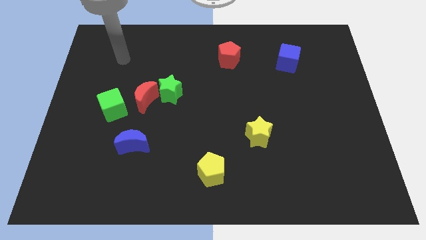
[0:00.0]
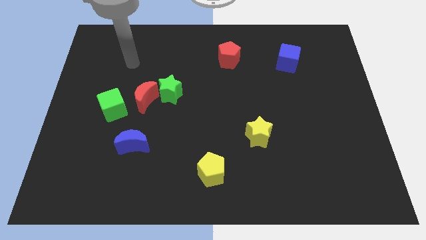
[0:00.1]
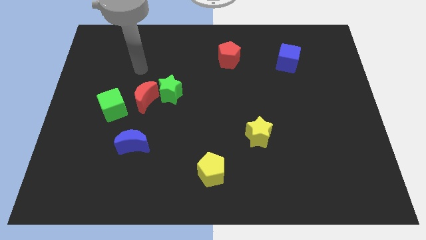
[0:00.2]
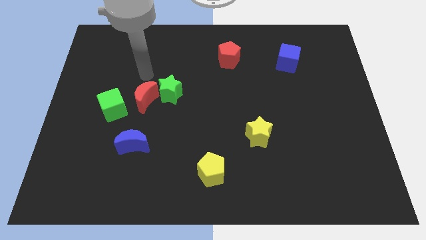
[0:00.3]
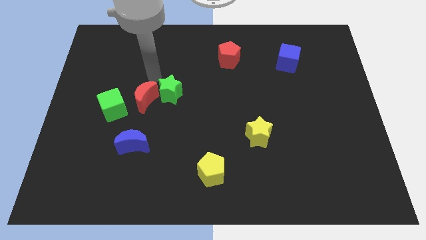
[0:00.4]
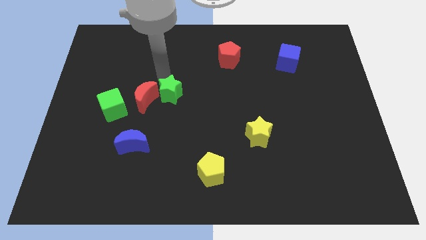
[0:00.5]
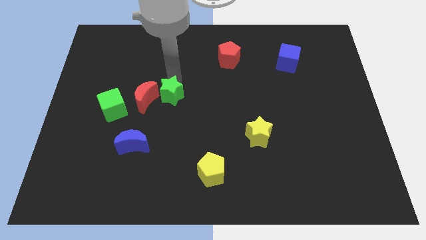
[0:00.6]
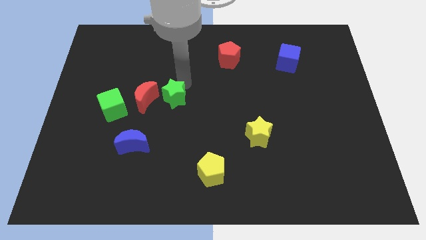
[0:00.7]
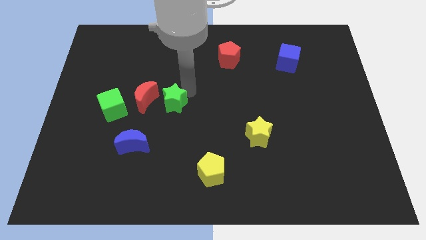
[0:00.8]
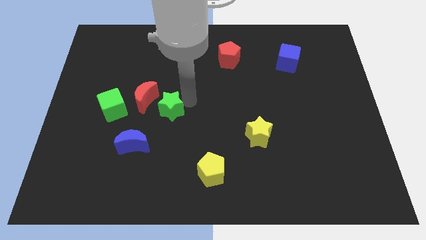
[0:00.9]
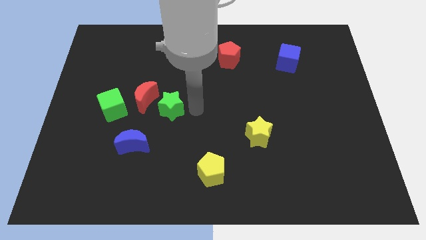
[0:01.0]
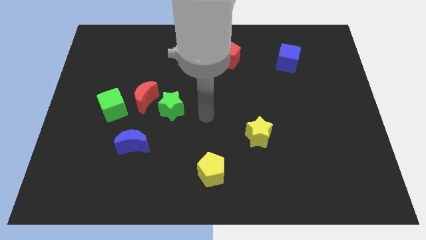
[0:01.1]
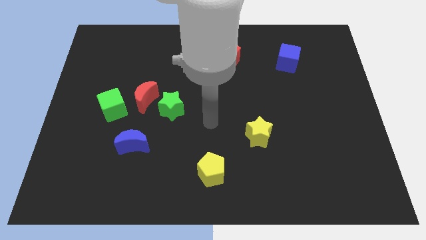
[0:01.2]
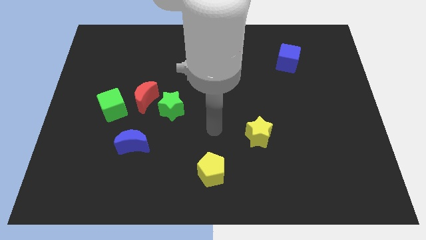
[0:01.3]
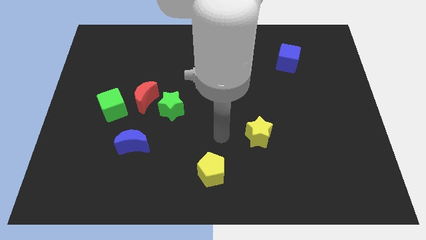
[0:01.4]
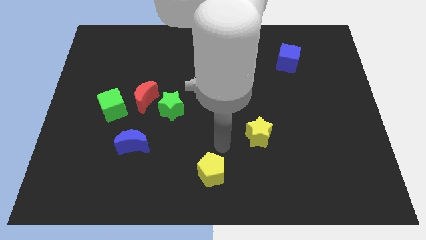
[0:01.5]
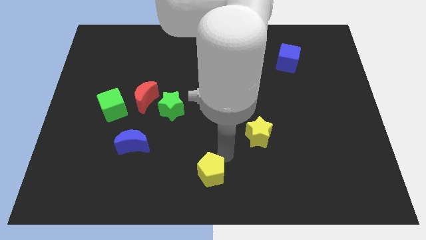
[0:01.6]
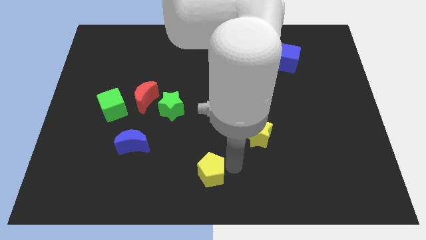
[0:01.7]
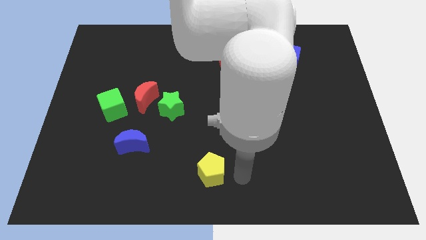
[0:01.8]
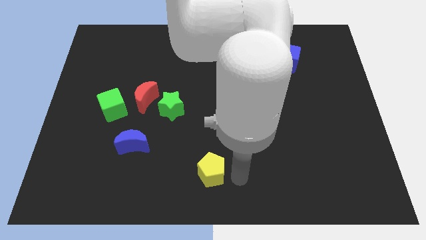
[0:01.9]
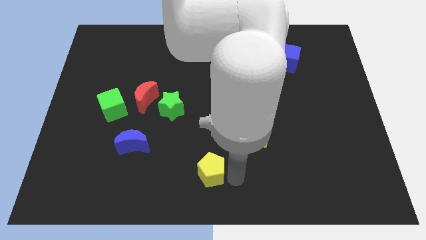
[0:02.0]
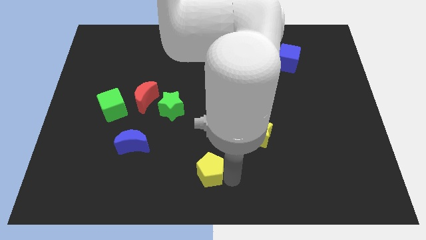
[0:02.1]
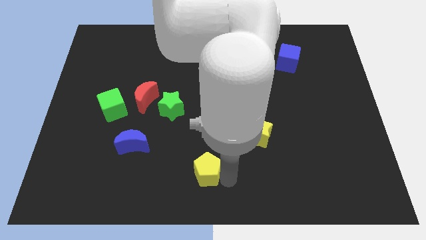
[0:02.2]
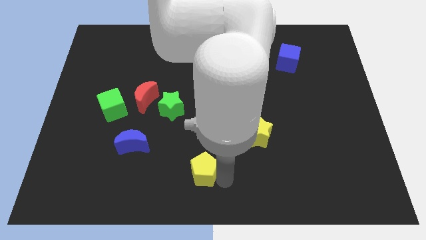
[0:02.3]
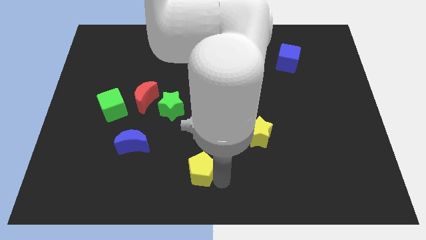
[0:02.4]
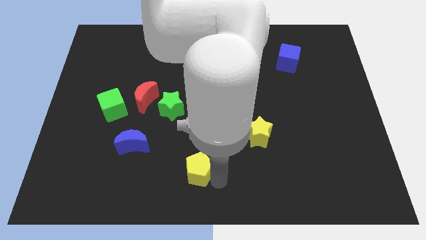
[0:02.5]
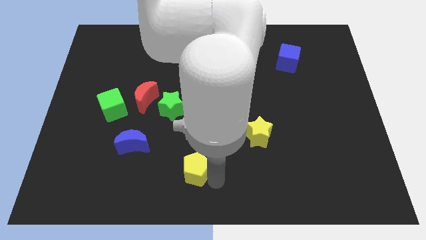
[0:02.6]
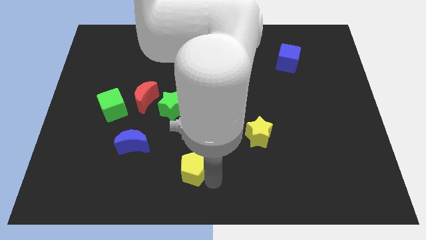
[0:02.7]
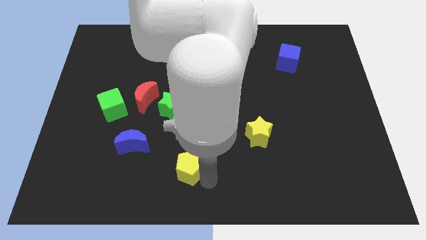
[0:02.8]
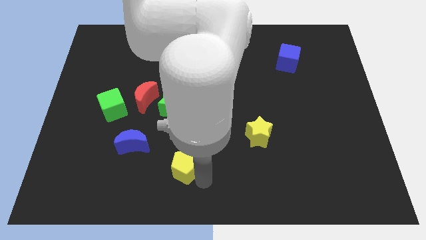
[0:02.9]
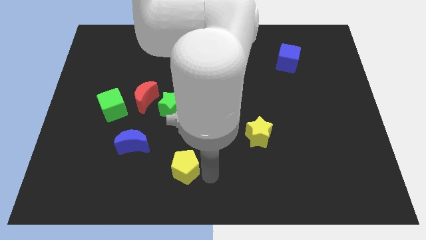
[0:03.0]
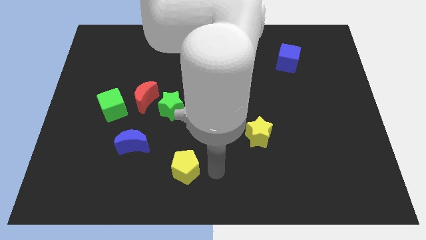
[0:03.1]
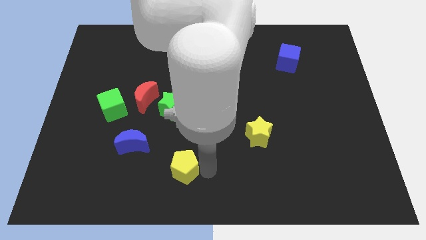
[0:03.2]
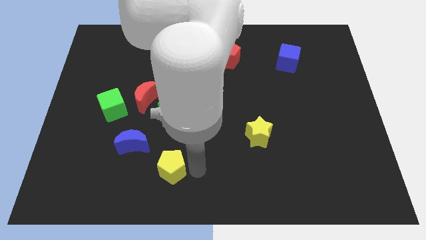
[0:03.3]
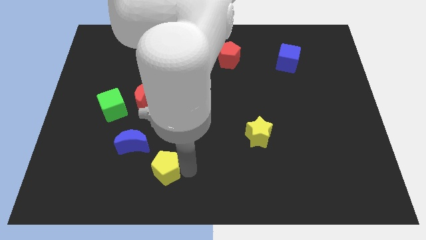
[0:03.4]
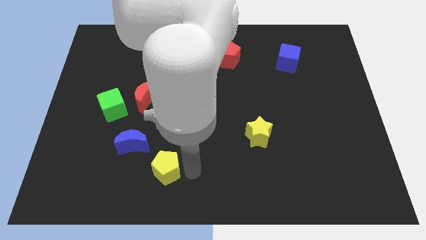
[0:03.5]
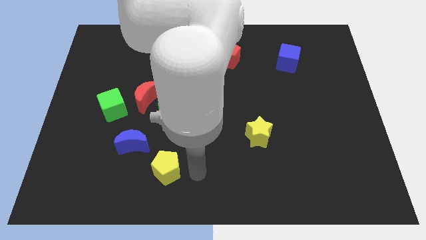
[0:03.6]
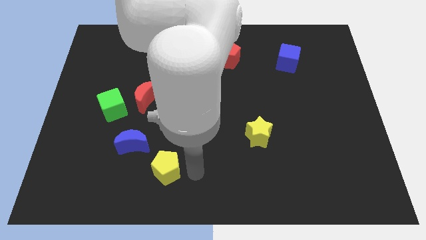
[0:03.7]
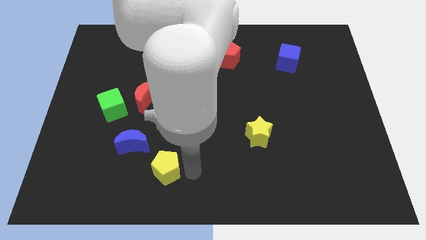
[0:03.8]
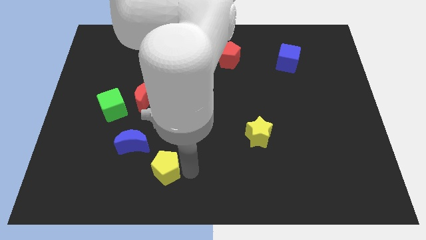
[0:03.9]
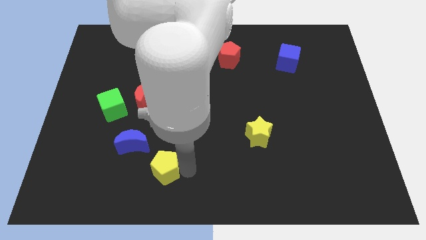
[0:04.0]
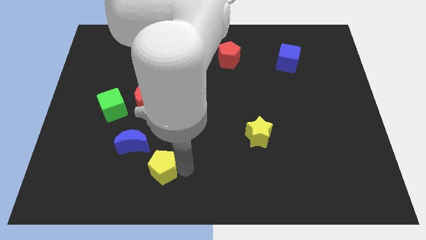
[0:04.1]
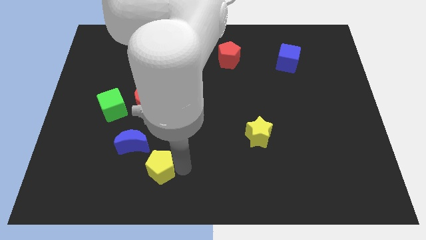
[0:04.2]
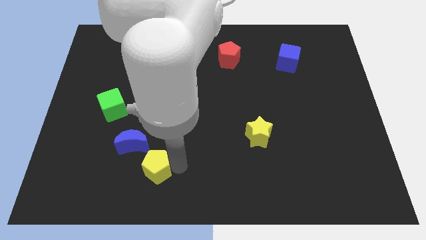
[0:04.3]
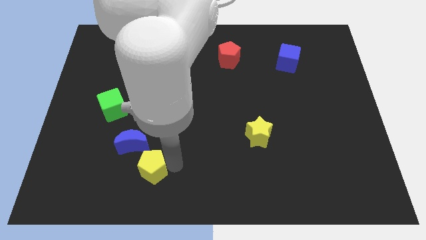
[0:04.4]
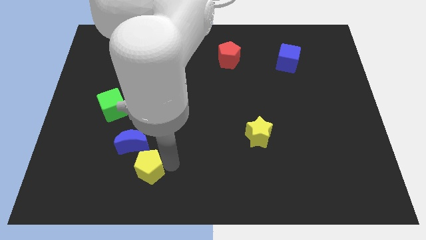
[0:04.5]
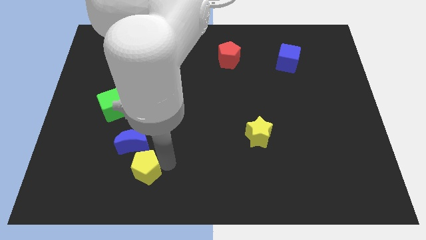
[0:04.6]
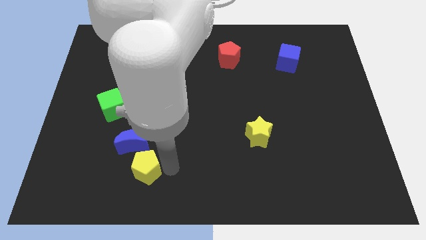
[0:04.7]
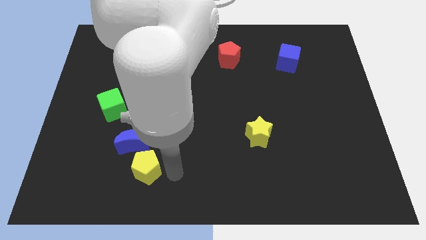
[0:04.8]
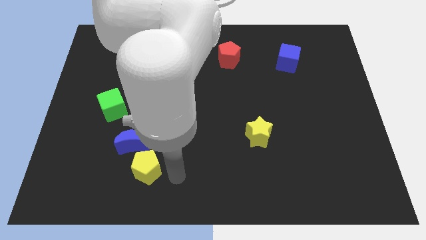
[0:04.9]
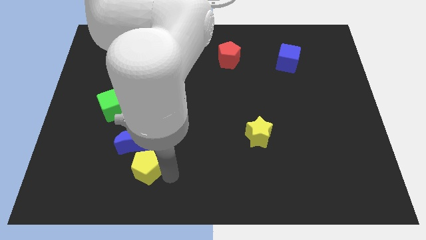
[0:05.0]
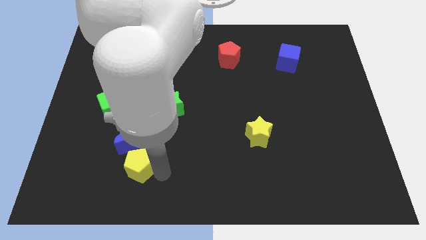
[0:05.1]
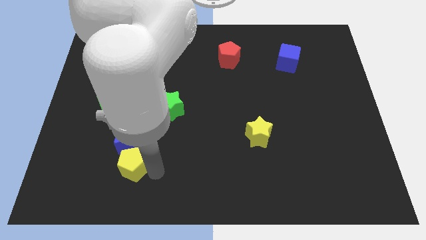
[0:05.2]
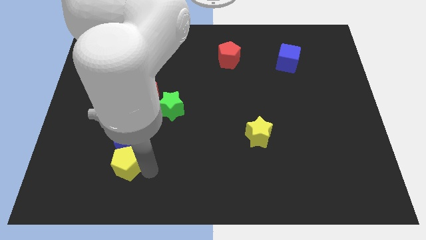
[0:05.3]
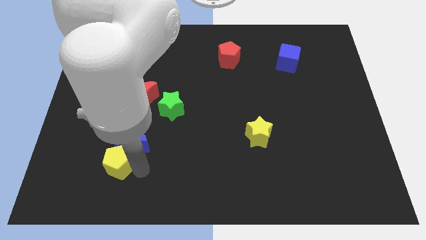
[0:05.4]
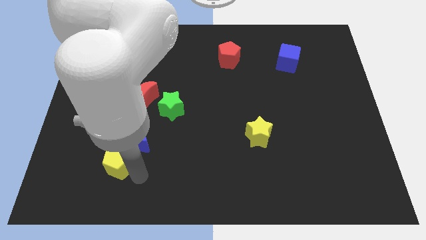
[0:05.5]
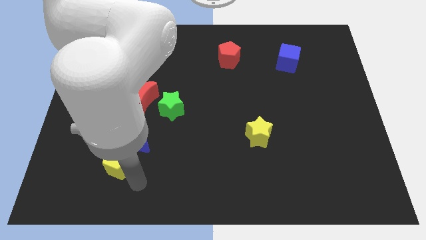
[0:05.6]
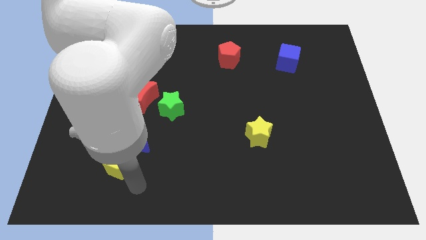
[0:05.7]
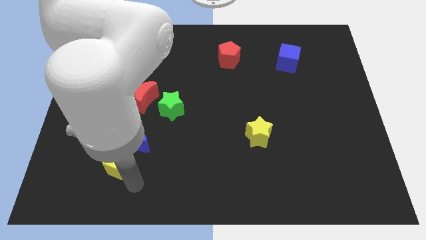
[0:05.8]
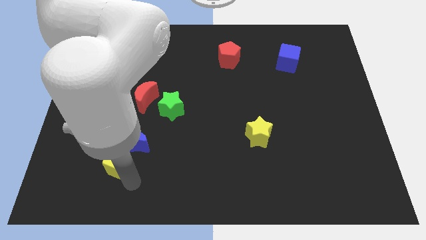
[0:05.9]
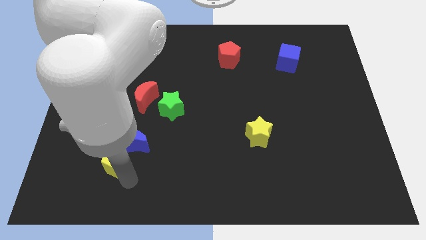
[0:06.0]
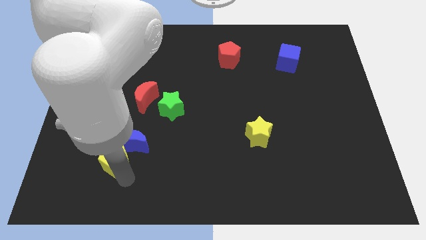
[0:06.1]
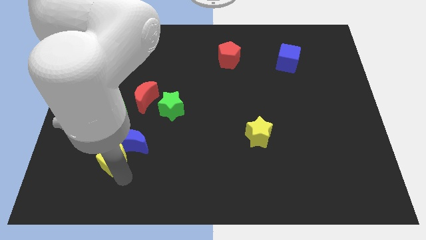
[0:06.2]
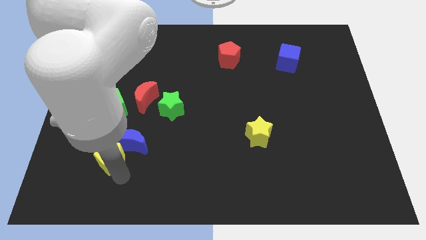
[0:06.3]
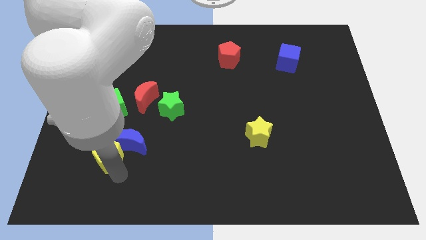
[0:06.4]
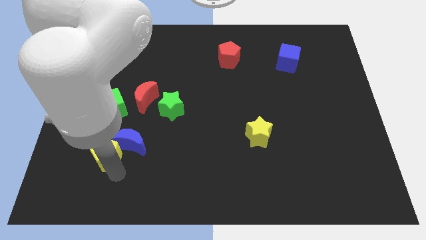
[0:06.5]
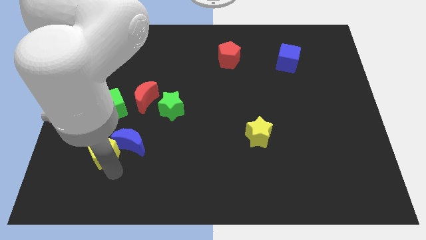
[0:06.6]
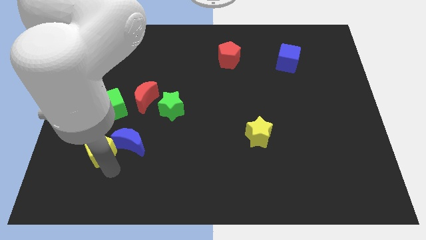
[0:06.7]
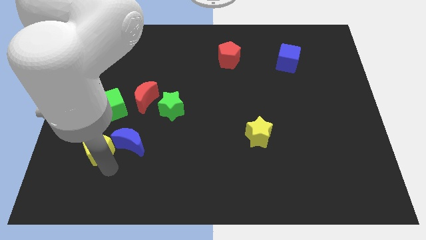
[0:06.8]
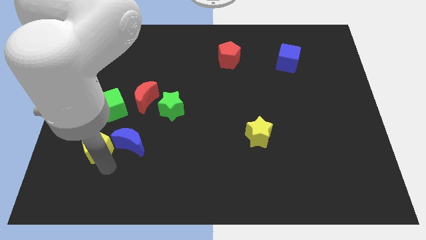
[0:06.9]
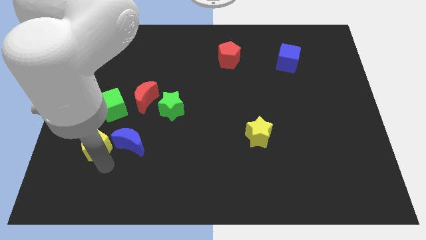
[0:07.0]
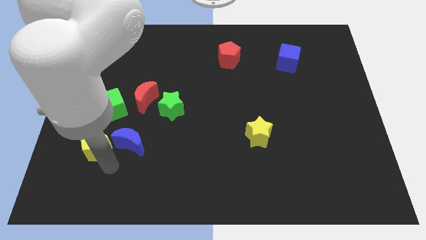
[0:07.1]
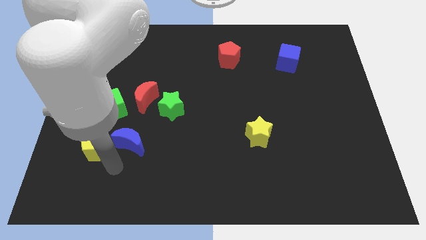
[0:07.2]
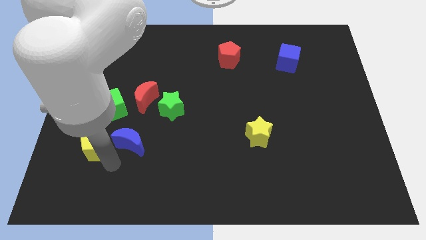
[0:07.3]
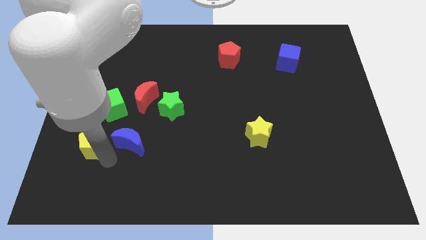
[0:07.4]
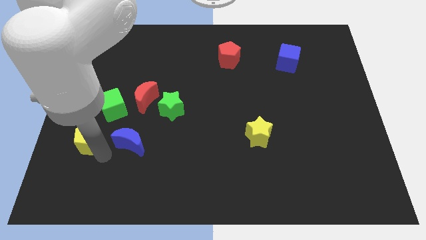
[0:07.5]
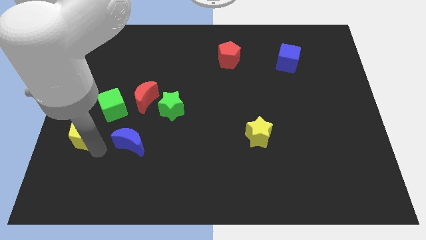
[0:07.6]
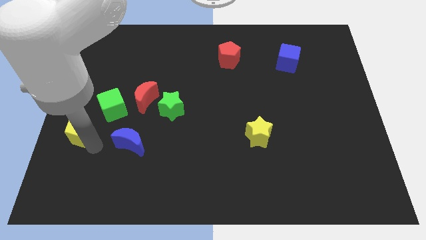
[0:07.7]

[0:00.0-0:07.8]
push the yellow pentagon to the left side of the board
